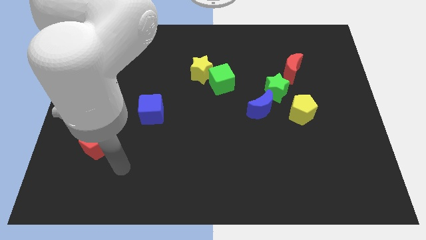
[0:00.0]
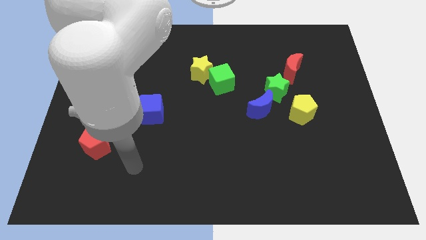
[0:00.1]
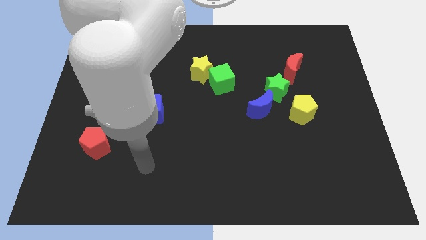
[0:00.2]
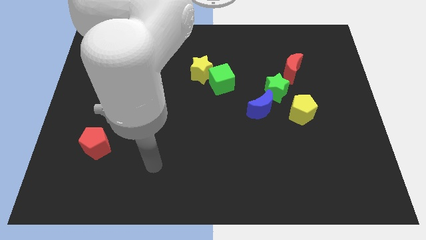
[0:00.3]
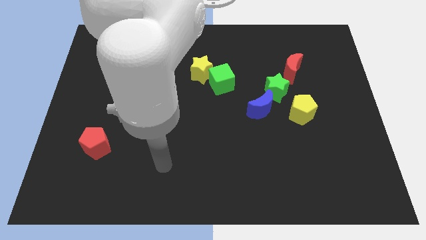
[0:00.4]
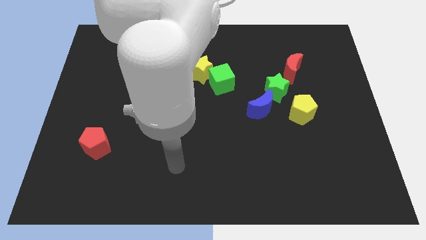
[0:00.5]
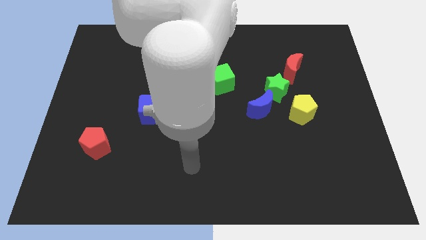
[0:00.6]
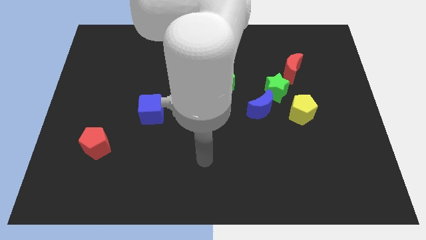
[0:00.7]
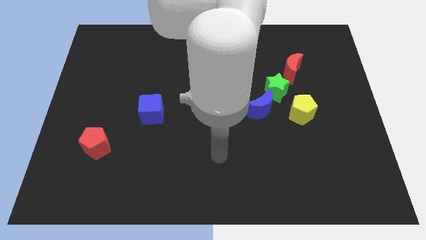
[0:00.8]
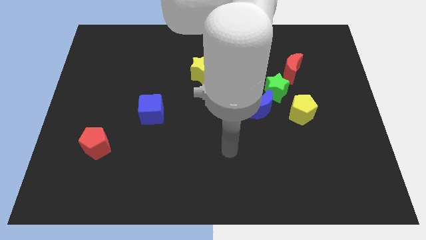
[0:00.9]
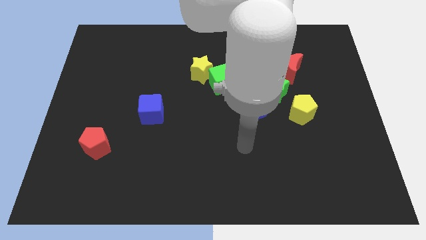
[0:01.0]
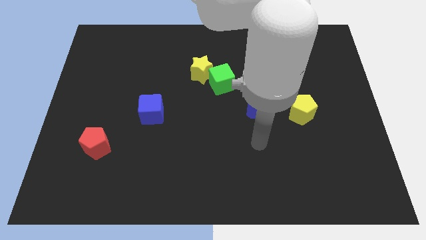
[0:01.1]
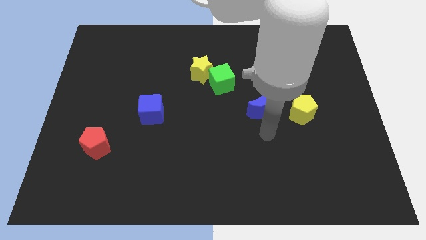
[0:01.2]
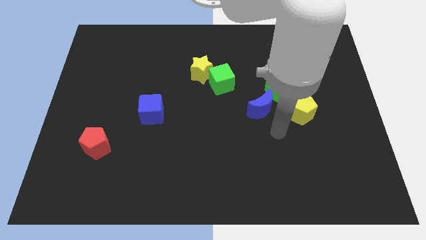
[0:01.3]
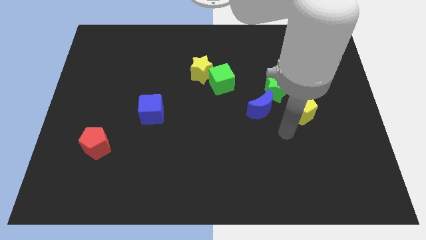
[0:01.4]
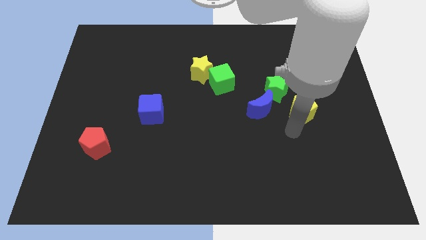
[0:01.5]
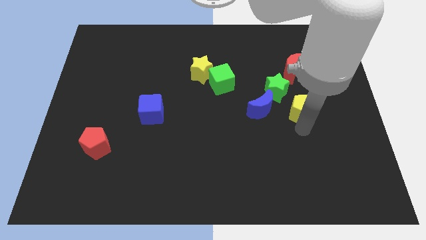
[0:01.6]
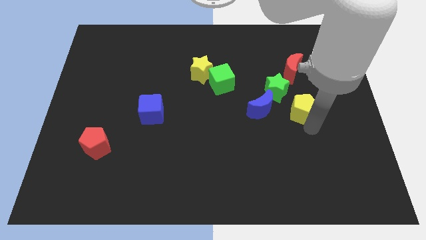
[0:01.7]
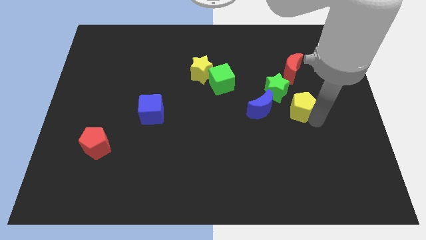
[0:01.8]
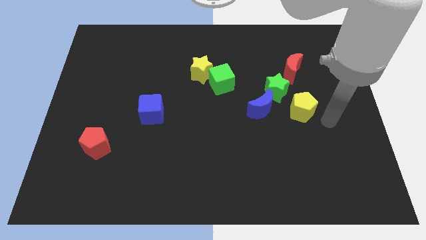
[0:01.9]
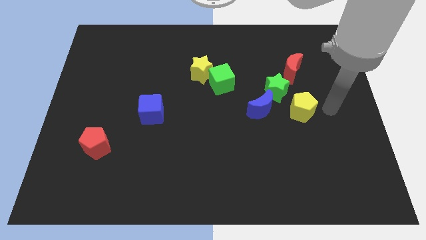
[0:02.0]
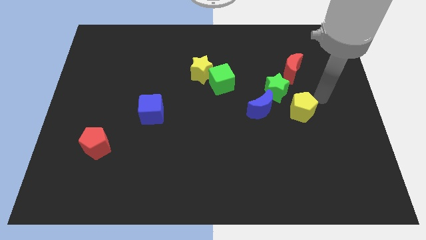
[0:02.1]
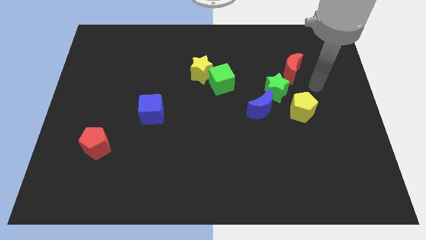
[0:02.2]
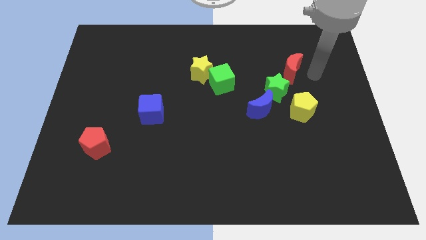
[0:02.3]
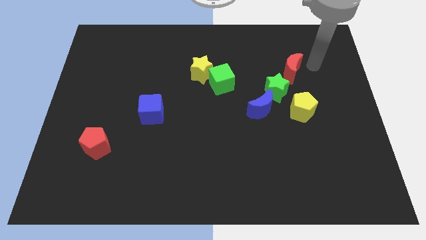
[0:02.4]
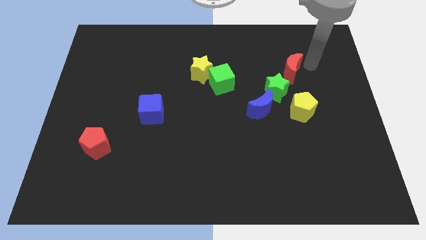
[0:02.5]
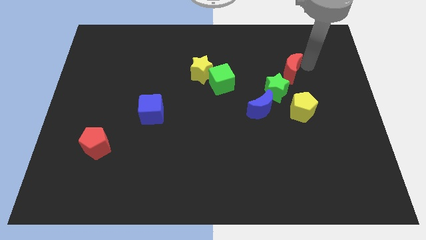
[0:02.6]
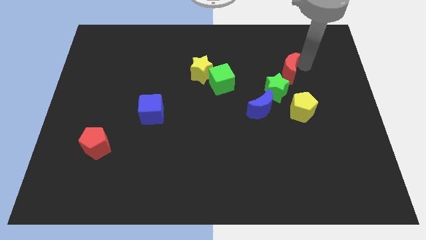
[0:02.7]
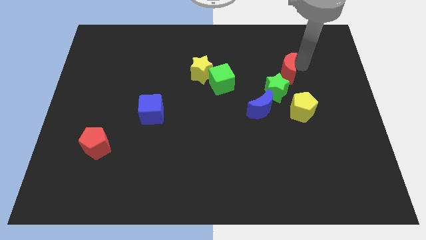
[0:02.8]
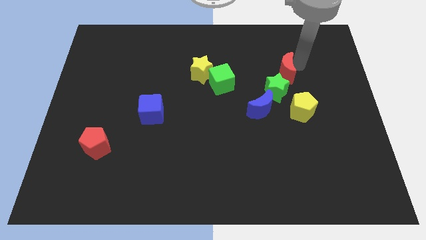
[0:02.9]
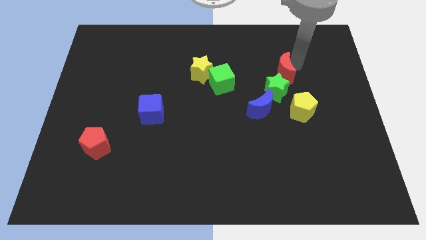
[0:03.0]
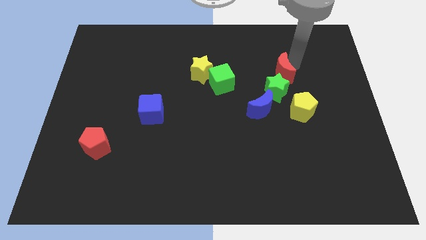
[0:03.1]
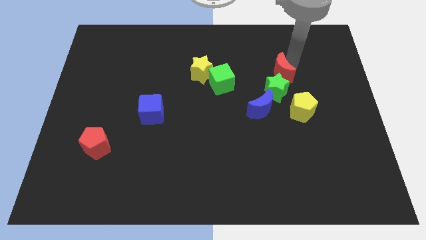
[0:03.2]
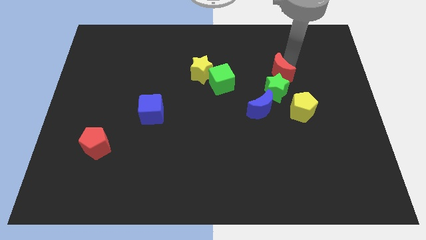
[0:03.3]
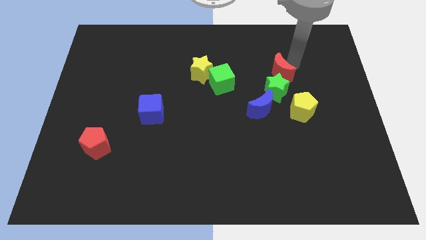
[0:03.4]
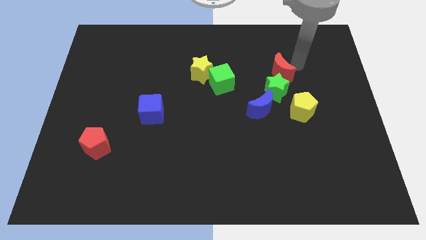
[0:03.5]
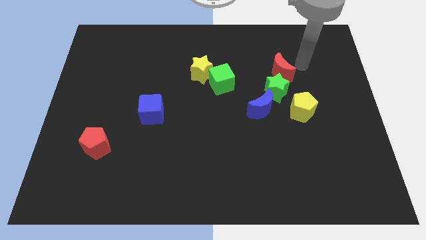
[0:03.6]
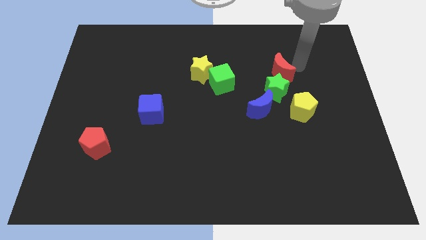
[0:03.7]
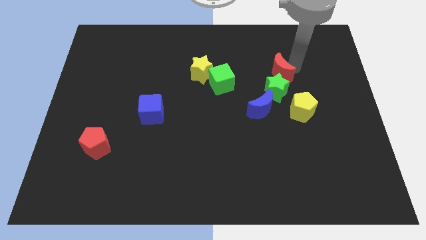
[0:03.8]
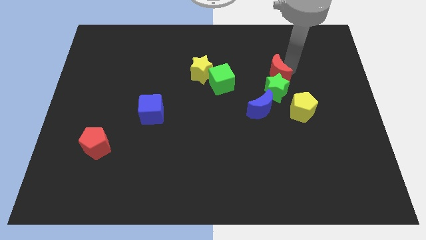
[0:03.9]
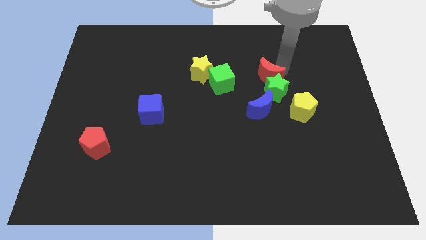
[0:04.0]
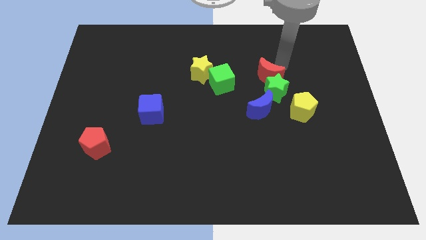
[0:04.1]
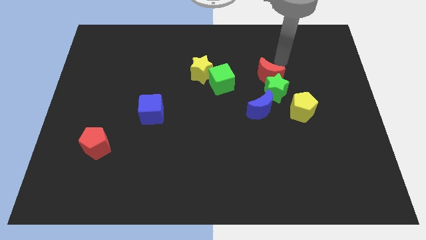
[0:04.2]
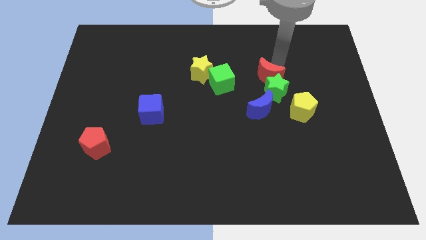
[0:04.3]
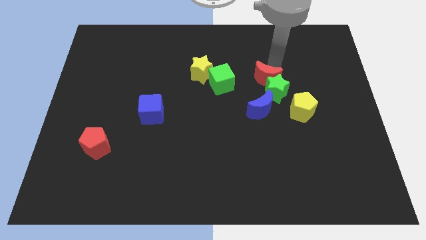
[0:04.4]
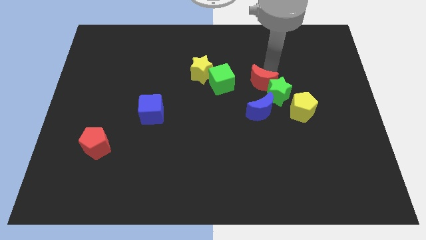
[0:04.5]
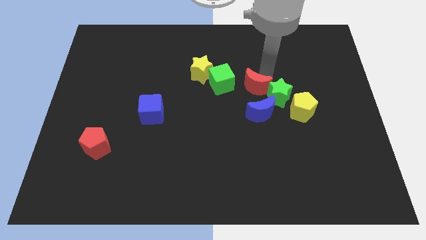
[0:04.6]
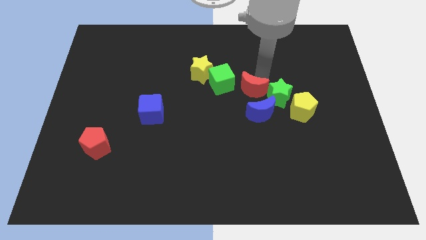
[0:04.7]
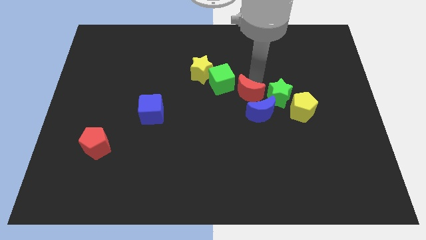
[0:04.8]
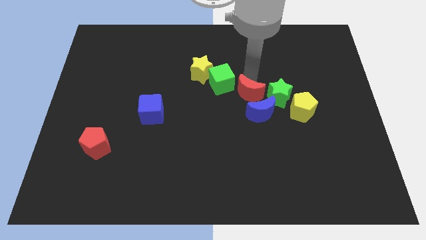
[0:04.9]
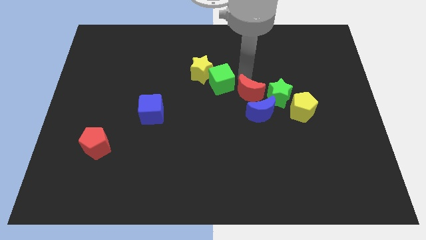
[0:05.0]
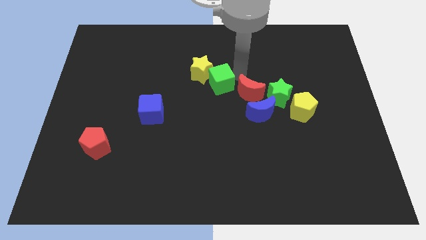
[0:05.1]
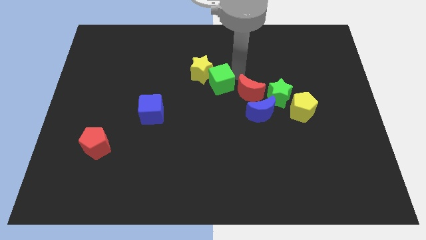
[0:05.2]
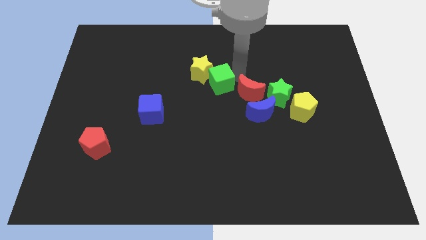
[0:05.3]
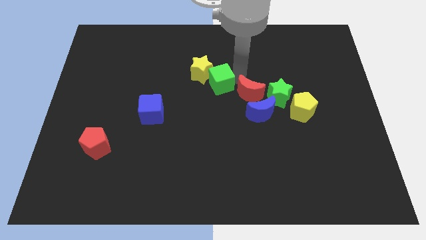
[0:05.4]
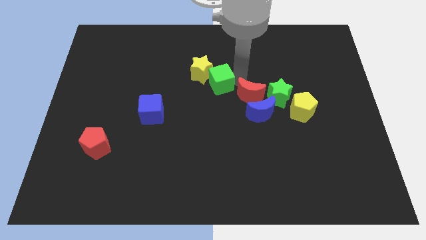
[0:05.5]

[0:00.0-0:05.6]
push the red moon towards the blue moon

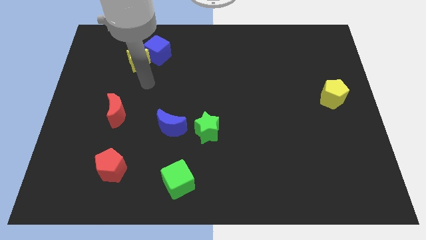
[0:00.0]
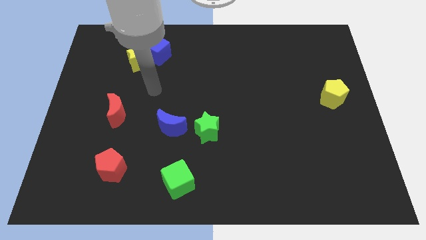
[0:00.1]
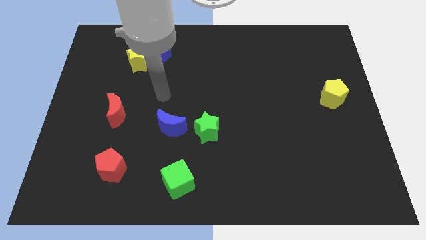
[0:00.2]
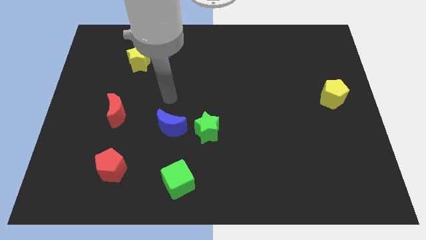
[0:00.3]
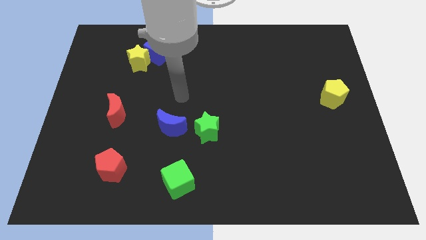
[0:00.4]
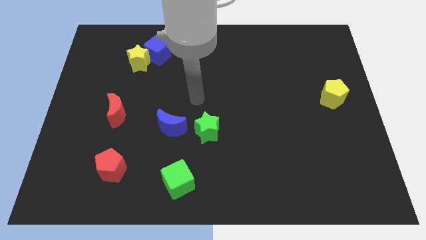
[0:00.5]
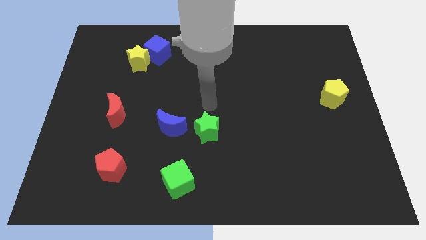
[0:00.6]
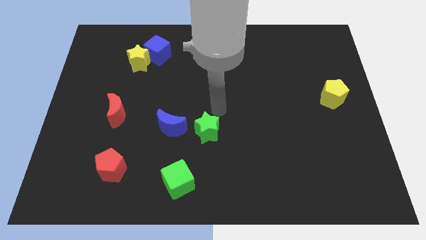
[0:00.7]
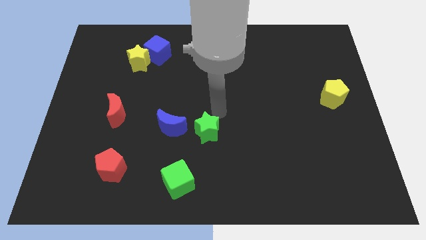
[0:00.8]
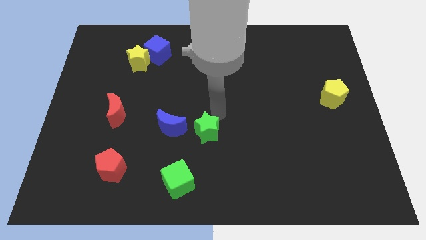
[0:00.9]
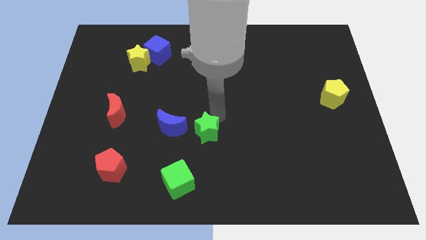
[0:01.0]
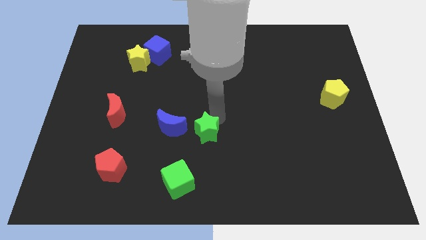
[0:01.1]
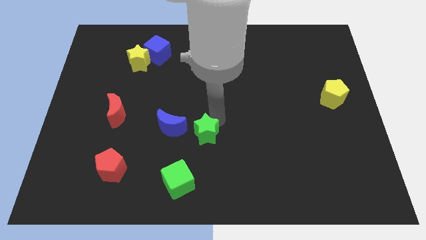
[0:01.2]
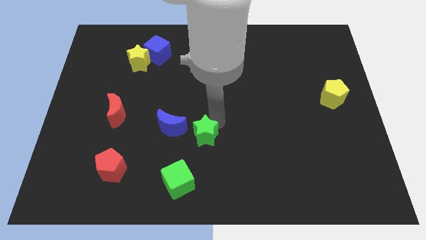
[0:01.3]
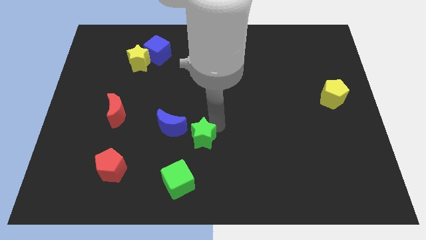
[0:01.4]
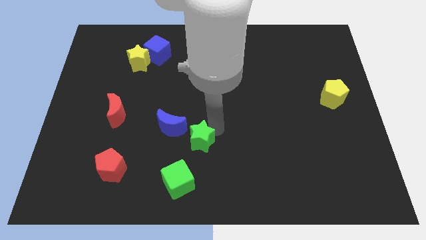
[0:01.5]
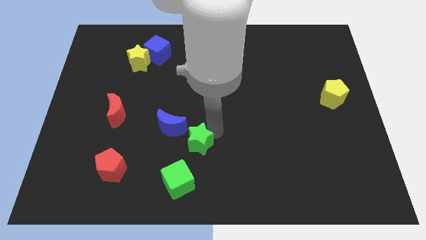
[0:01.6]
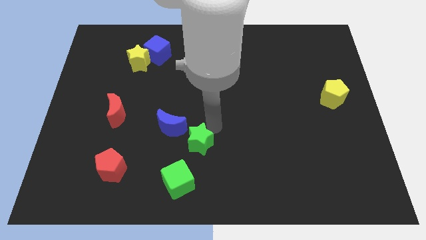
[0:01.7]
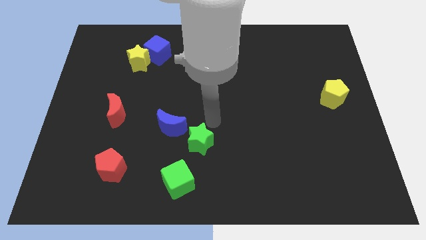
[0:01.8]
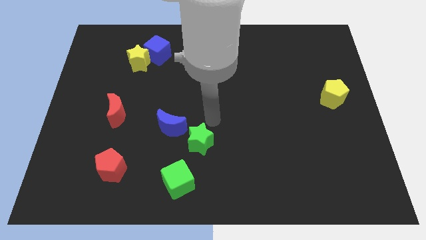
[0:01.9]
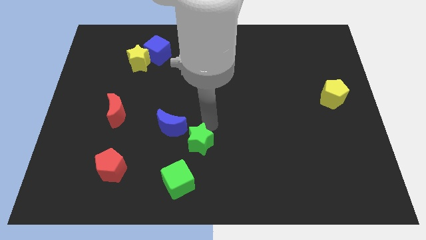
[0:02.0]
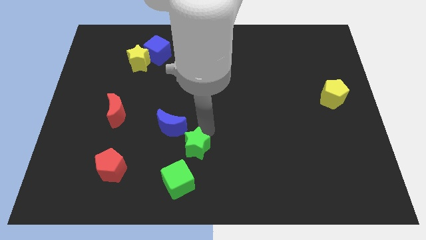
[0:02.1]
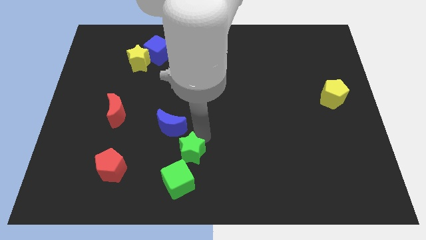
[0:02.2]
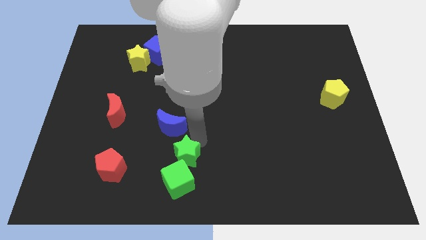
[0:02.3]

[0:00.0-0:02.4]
push the green star close to the green cube
